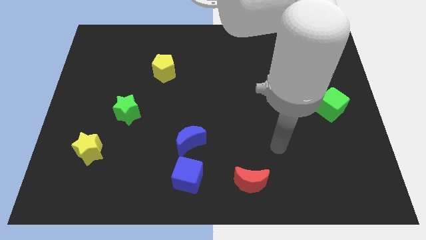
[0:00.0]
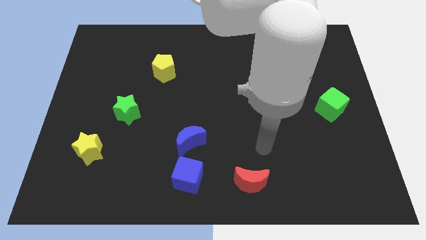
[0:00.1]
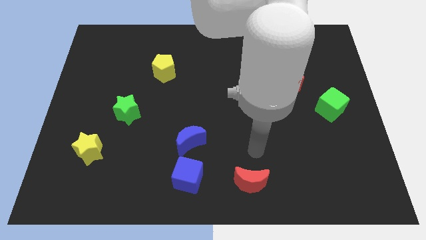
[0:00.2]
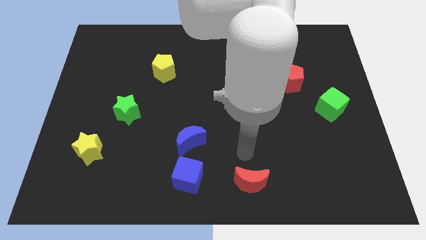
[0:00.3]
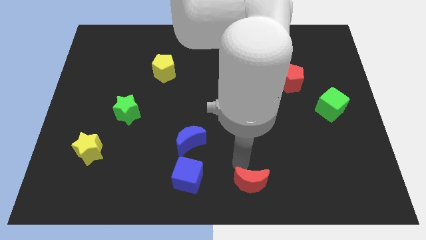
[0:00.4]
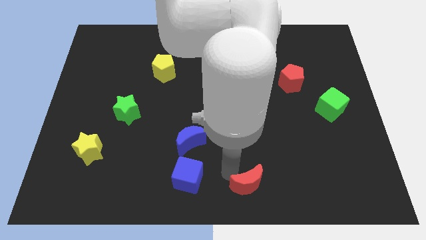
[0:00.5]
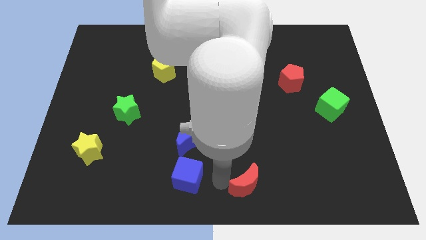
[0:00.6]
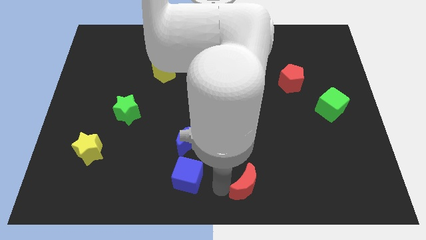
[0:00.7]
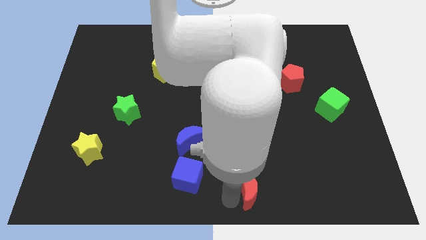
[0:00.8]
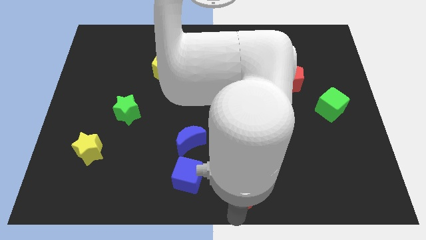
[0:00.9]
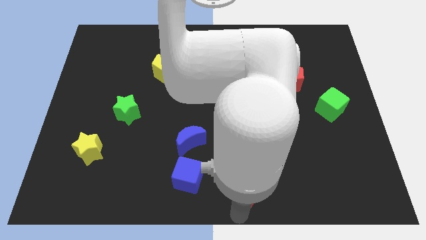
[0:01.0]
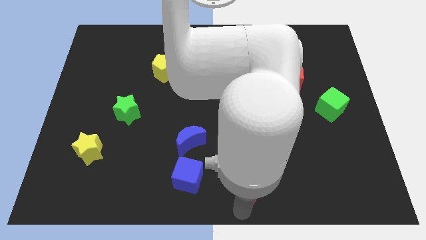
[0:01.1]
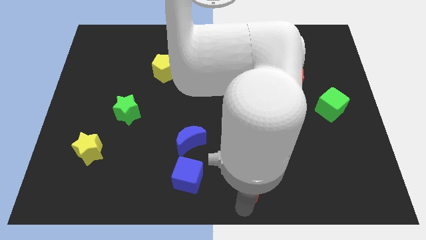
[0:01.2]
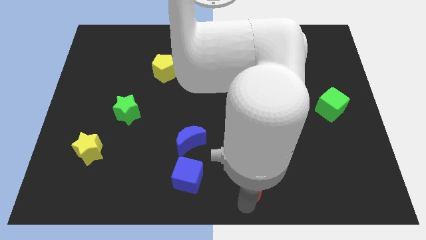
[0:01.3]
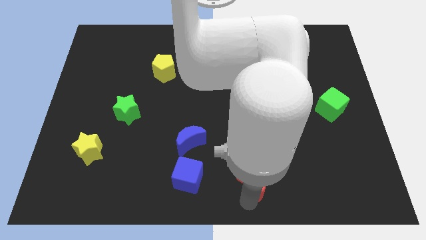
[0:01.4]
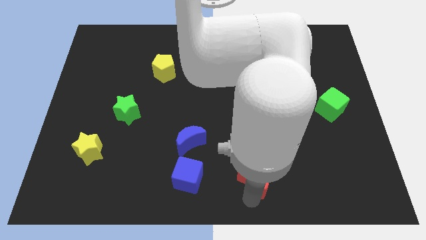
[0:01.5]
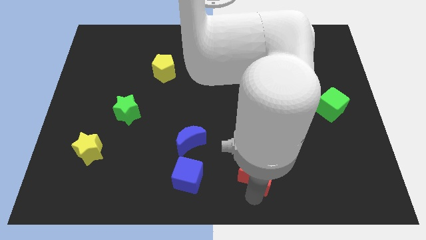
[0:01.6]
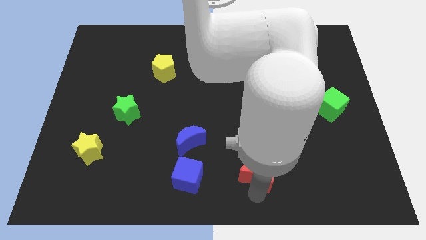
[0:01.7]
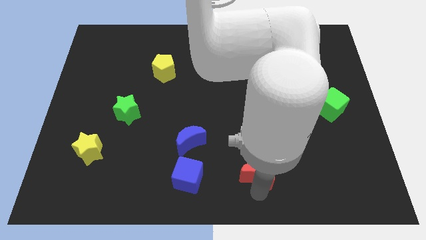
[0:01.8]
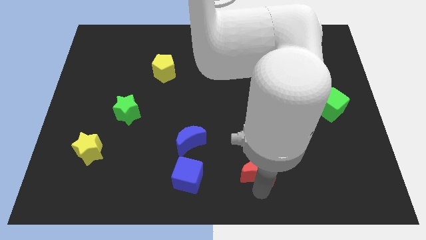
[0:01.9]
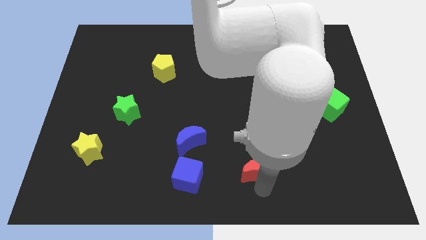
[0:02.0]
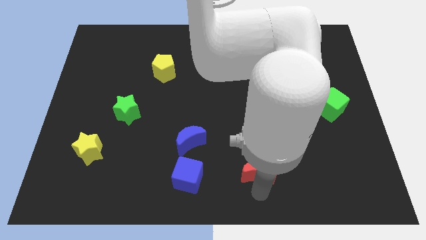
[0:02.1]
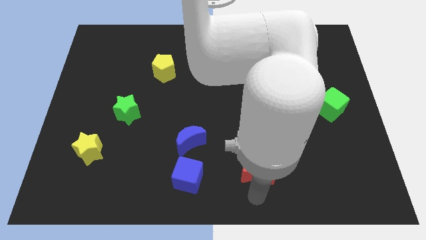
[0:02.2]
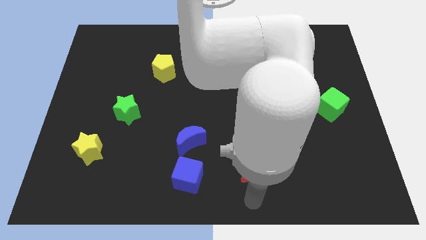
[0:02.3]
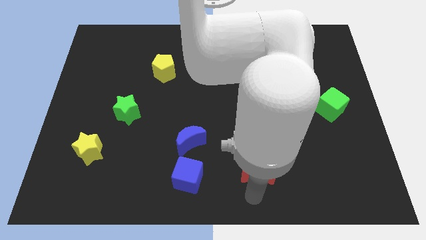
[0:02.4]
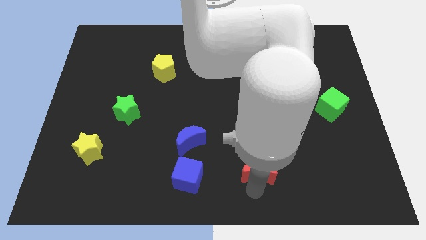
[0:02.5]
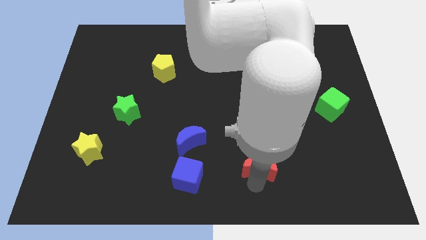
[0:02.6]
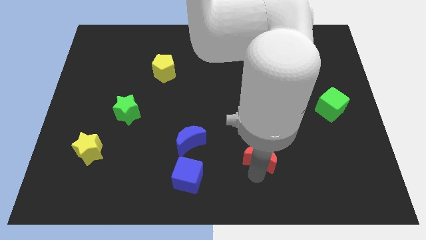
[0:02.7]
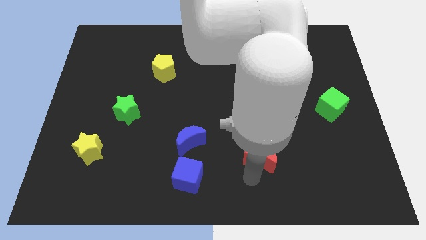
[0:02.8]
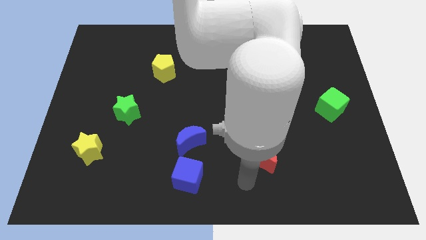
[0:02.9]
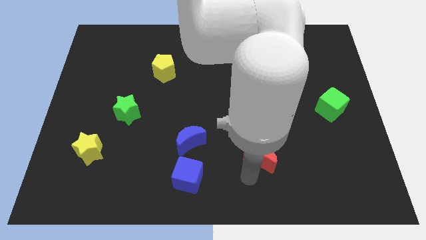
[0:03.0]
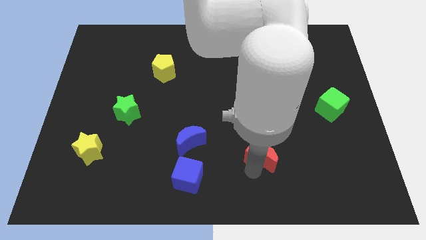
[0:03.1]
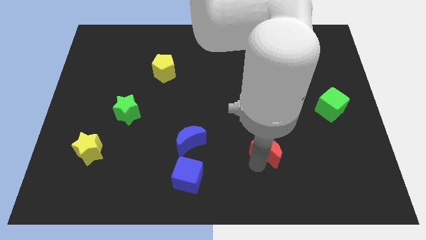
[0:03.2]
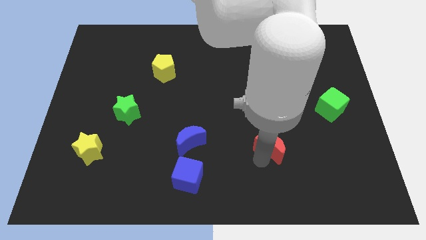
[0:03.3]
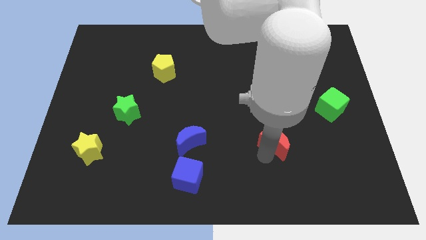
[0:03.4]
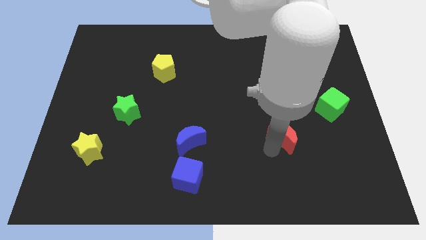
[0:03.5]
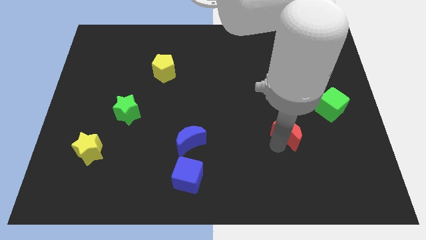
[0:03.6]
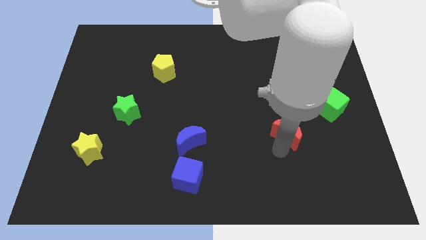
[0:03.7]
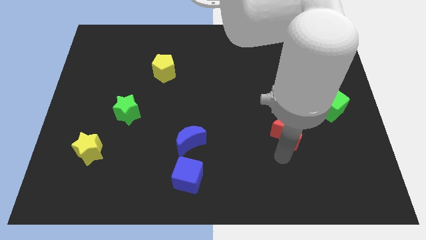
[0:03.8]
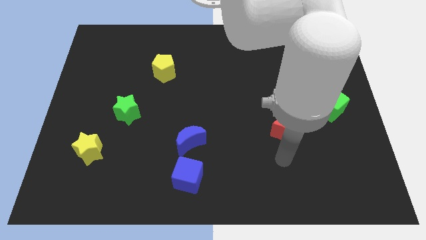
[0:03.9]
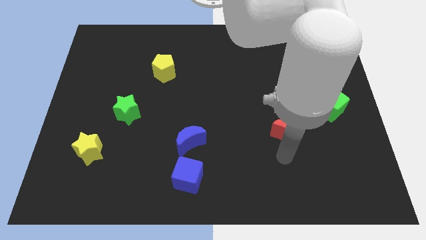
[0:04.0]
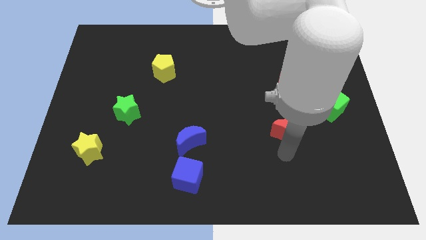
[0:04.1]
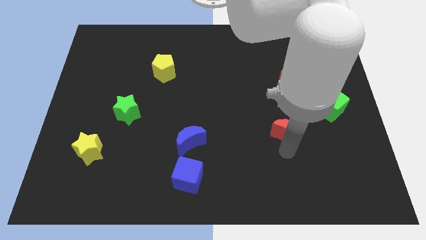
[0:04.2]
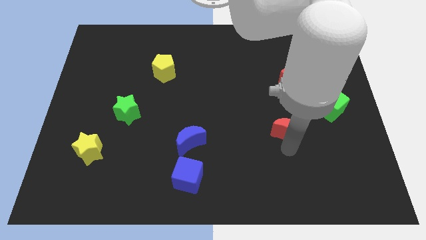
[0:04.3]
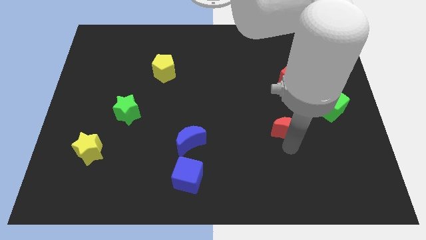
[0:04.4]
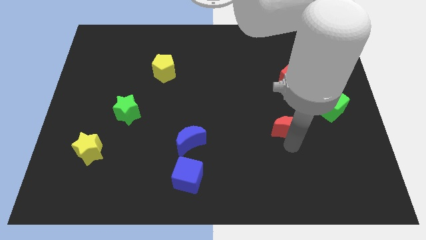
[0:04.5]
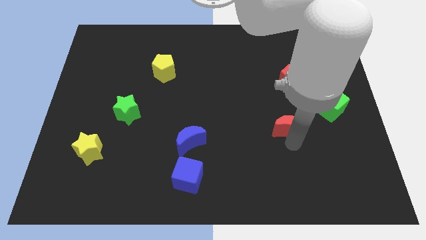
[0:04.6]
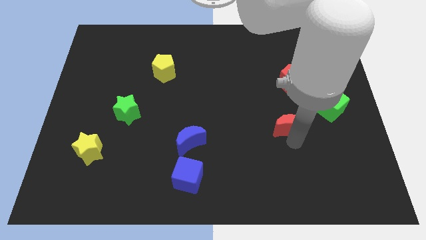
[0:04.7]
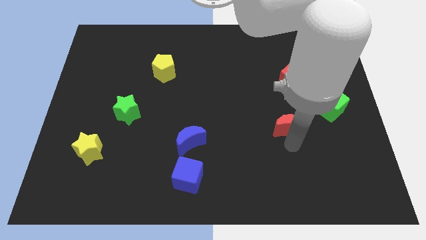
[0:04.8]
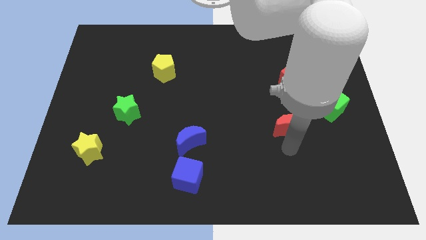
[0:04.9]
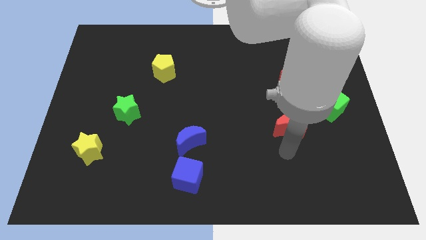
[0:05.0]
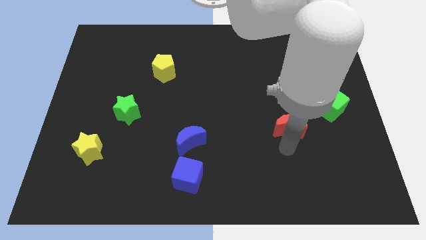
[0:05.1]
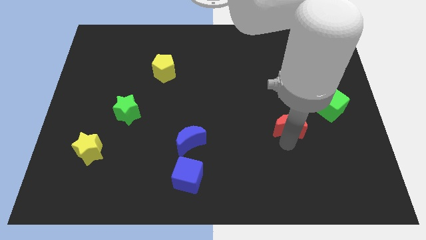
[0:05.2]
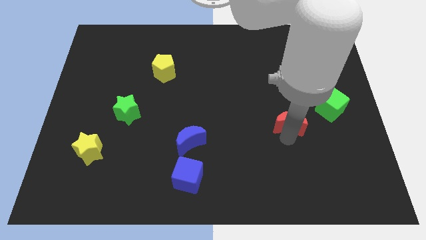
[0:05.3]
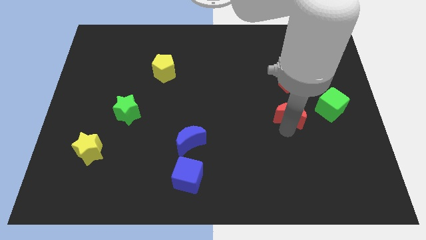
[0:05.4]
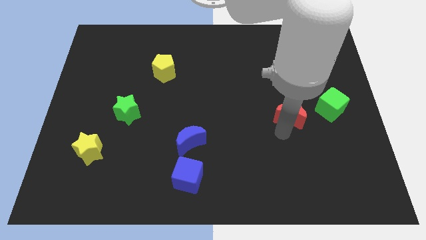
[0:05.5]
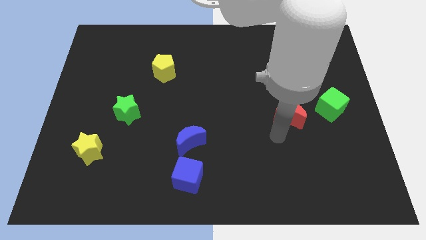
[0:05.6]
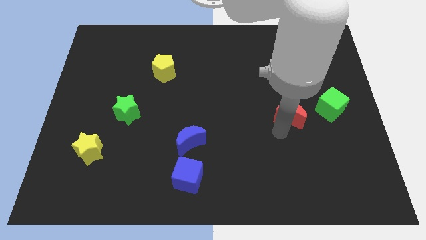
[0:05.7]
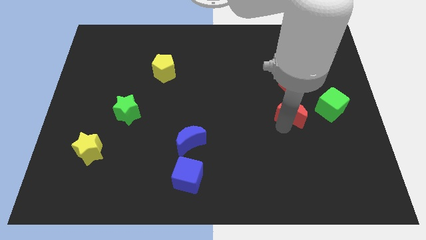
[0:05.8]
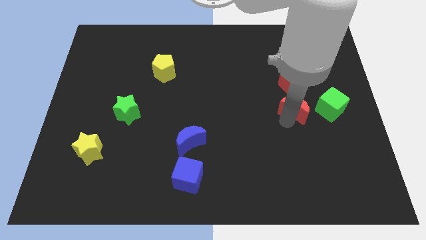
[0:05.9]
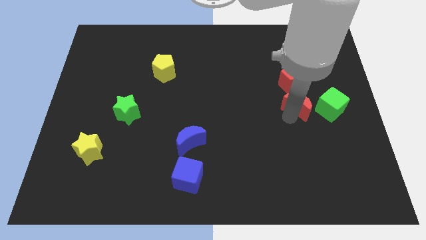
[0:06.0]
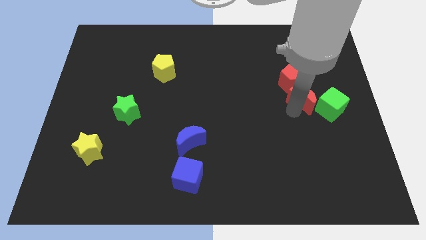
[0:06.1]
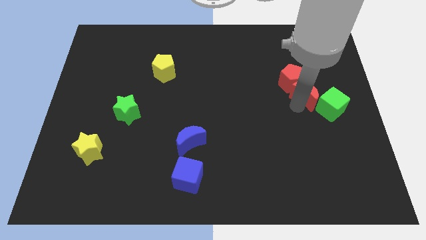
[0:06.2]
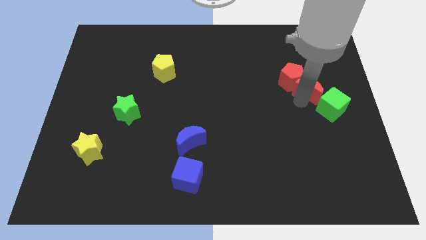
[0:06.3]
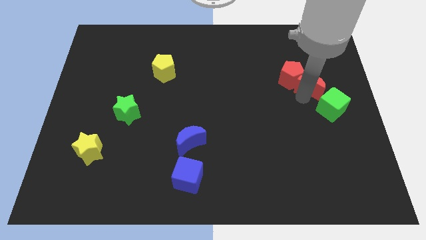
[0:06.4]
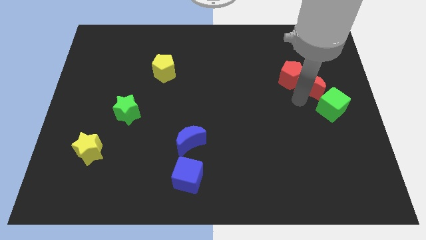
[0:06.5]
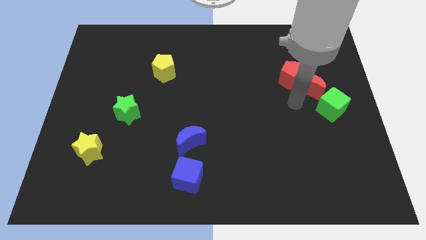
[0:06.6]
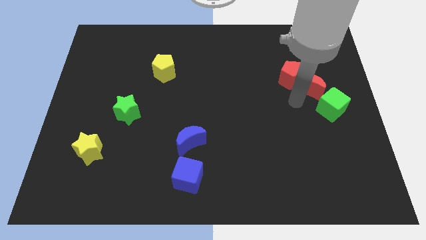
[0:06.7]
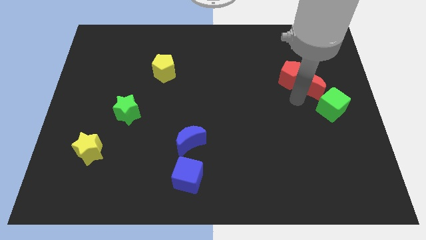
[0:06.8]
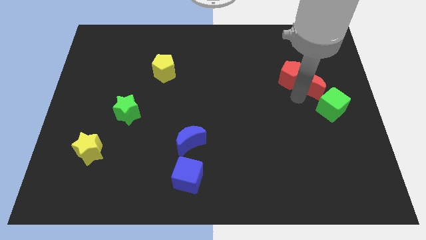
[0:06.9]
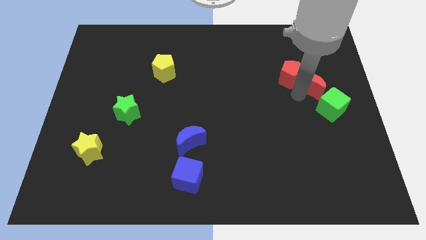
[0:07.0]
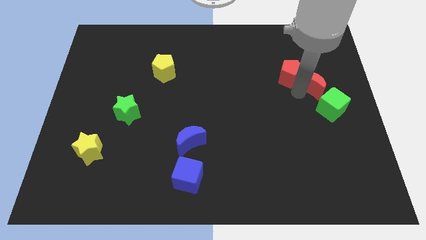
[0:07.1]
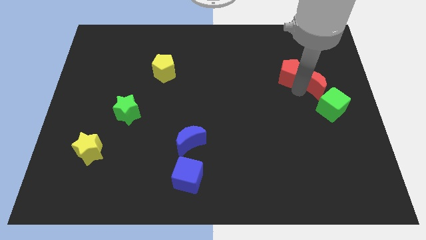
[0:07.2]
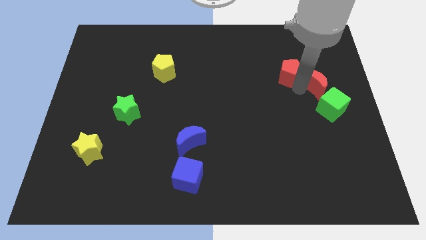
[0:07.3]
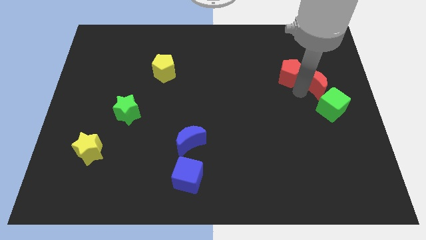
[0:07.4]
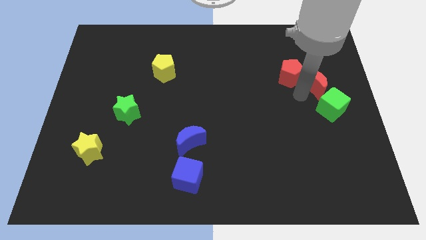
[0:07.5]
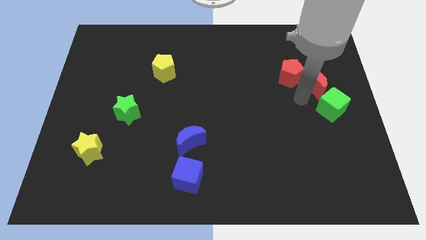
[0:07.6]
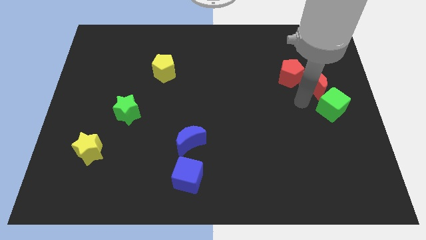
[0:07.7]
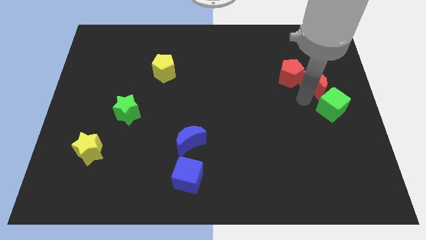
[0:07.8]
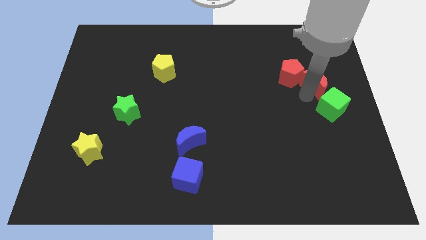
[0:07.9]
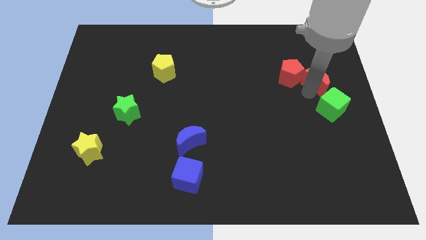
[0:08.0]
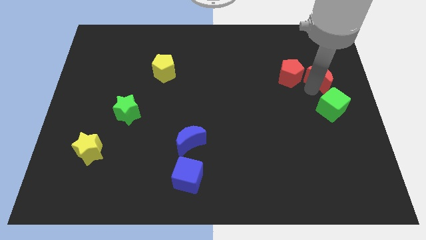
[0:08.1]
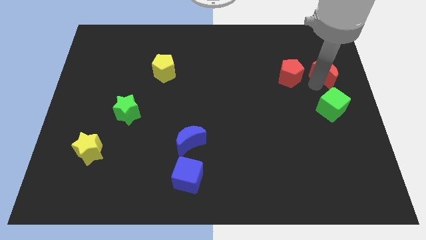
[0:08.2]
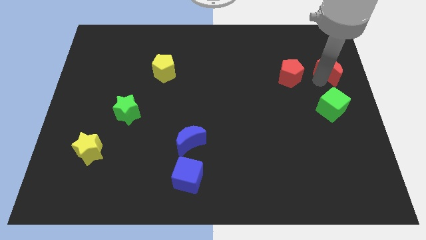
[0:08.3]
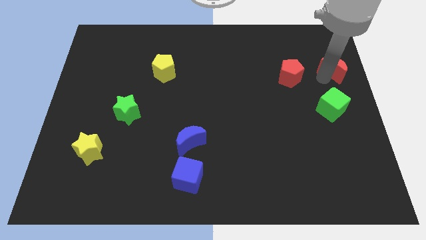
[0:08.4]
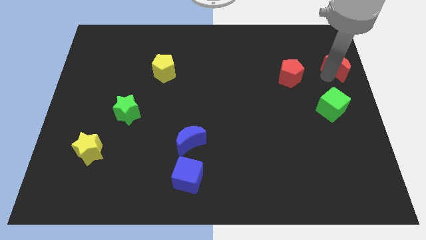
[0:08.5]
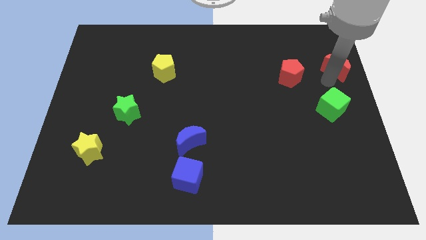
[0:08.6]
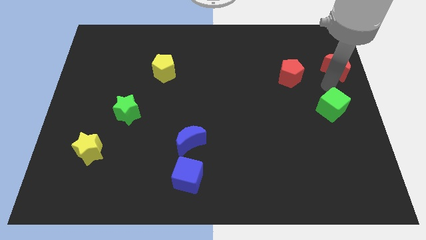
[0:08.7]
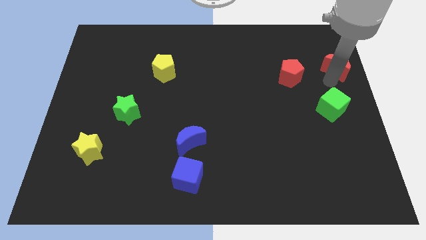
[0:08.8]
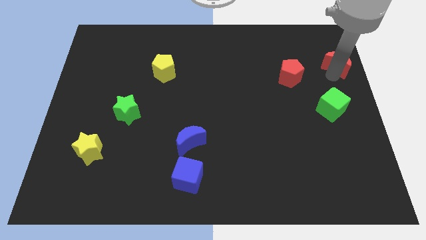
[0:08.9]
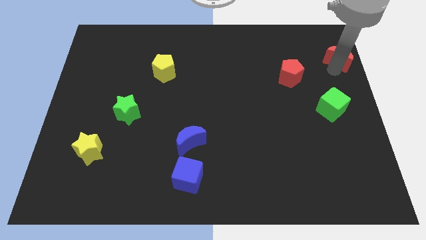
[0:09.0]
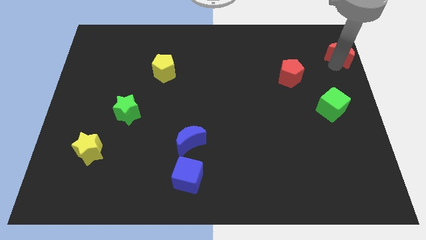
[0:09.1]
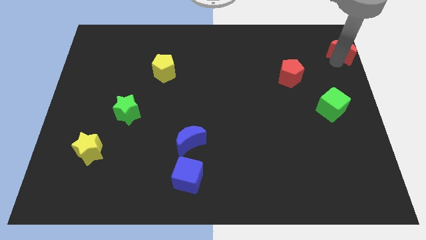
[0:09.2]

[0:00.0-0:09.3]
push the red moon to the upper right corner
